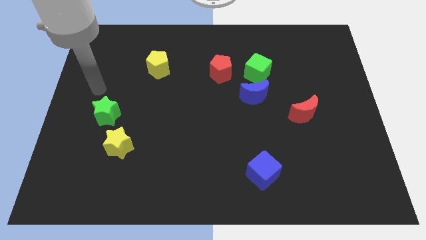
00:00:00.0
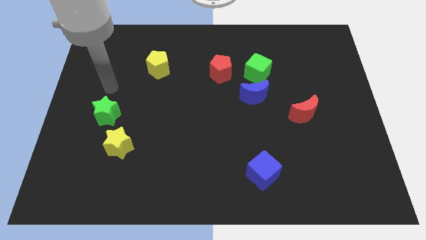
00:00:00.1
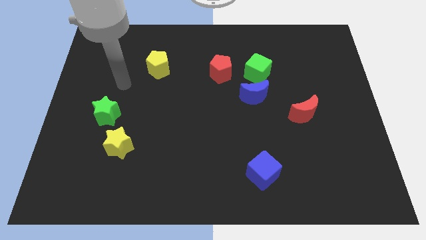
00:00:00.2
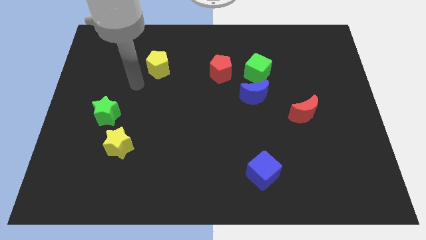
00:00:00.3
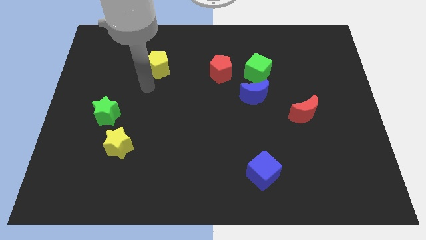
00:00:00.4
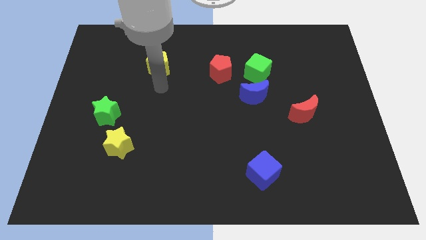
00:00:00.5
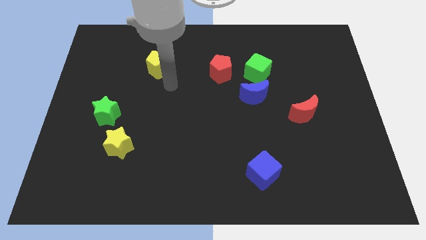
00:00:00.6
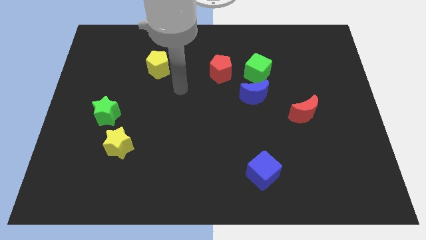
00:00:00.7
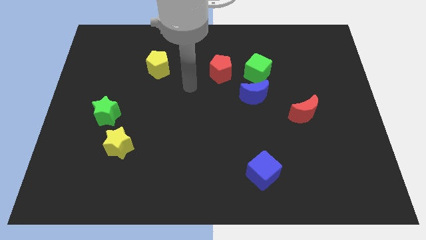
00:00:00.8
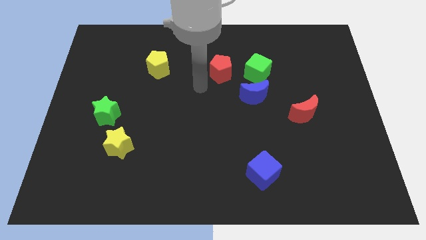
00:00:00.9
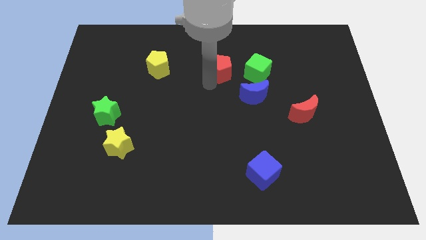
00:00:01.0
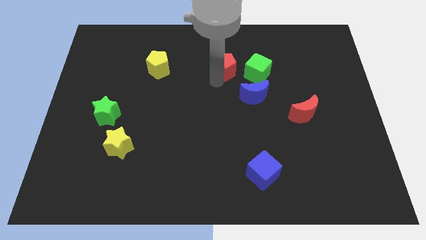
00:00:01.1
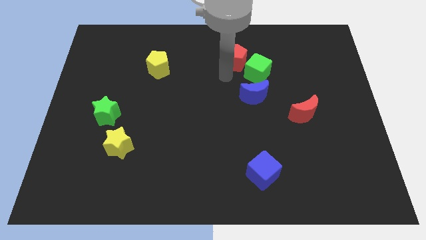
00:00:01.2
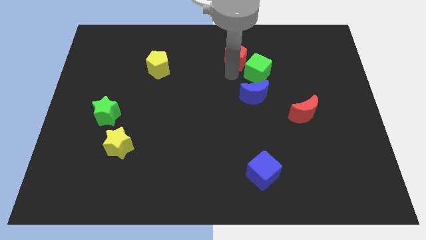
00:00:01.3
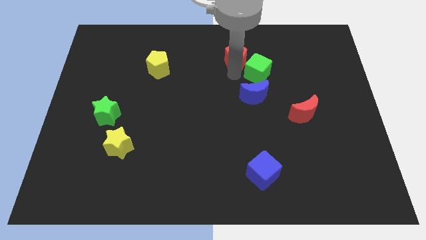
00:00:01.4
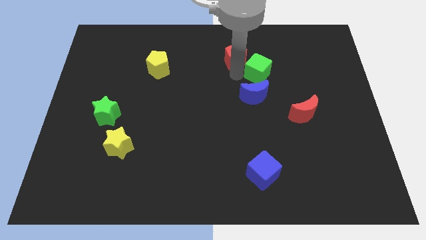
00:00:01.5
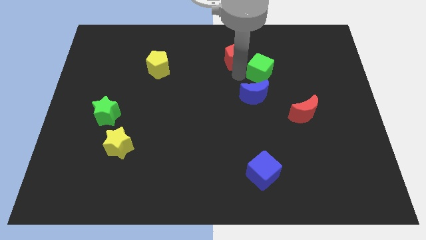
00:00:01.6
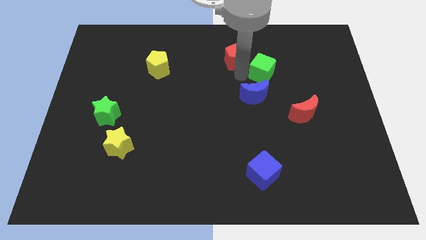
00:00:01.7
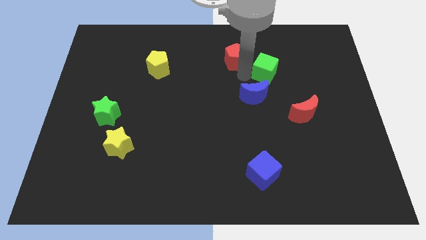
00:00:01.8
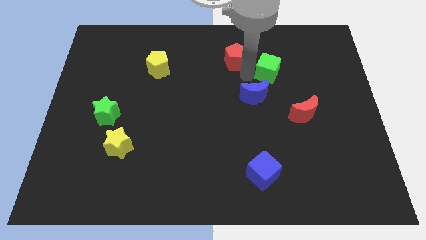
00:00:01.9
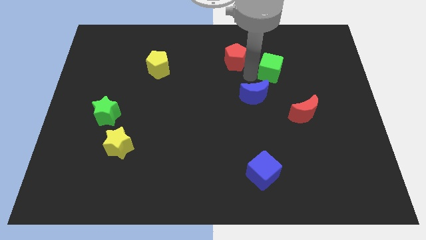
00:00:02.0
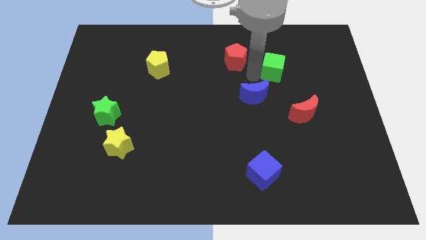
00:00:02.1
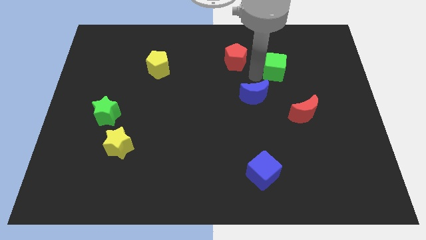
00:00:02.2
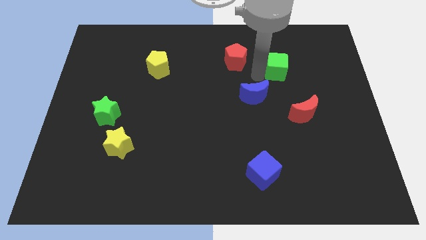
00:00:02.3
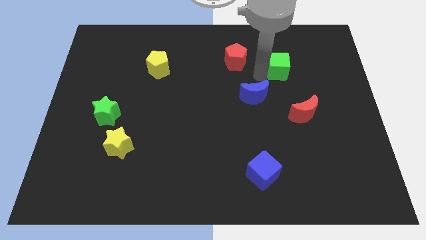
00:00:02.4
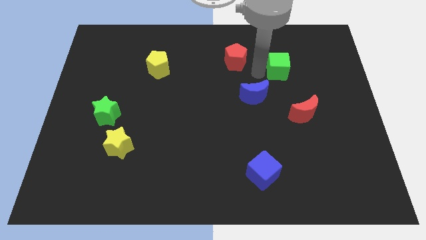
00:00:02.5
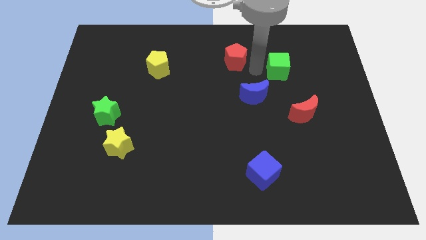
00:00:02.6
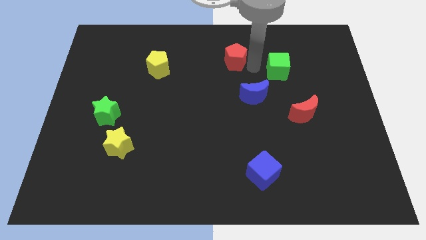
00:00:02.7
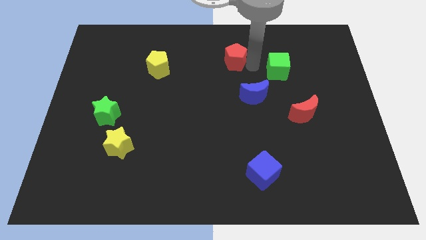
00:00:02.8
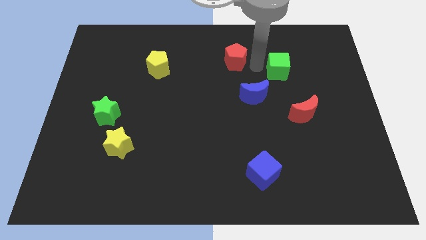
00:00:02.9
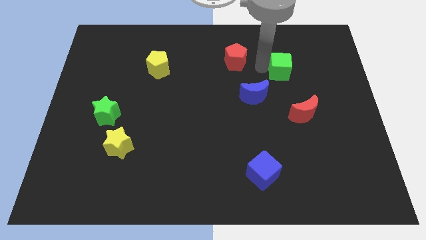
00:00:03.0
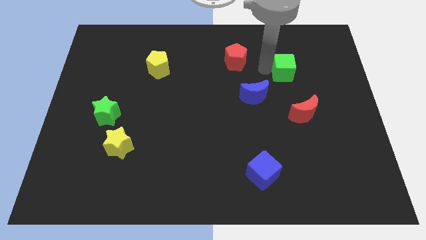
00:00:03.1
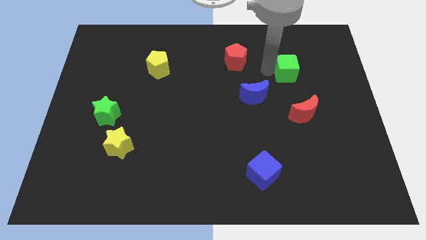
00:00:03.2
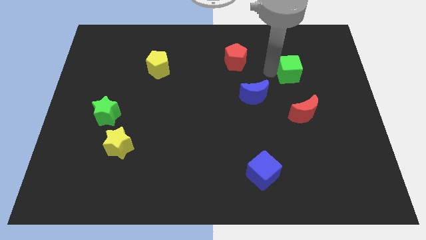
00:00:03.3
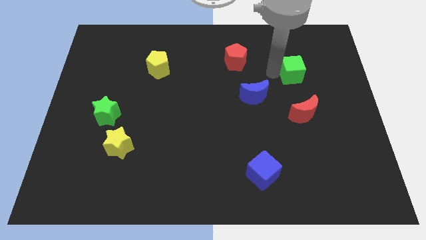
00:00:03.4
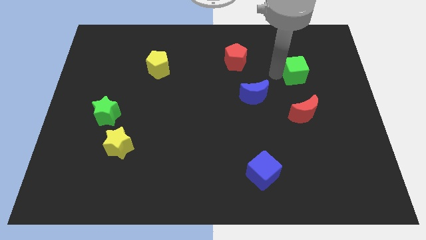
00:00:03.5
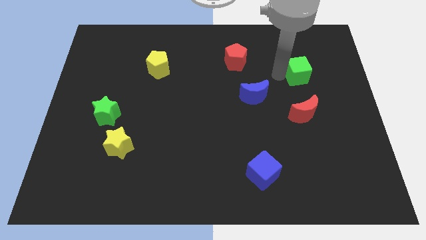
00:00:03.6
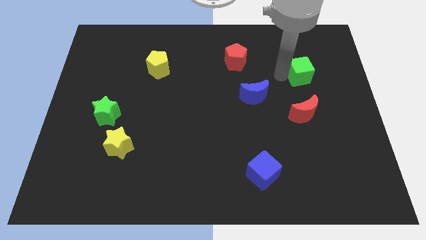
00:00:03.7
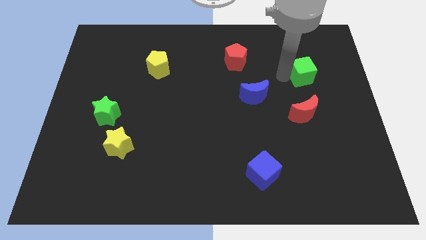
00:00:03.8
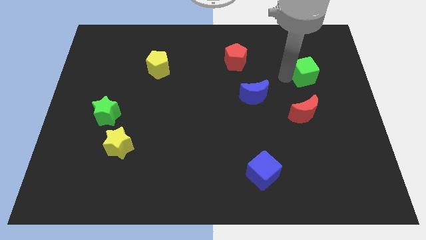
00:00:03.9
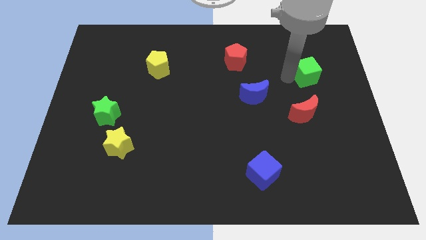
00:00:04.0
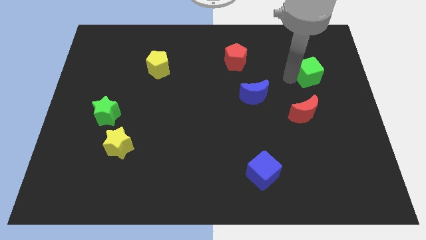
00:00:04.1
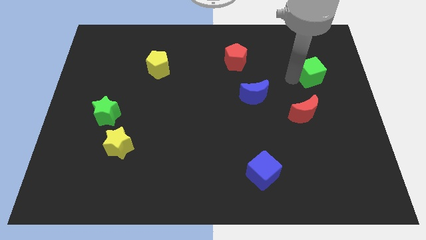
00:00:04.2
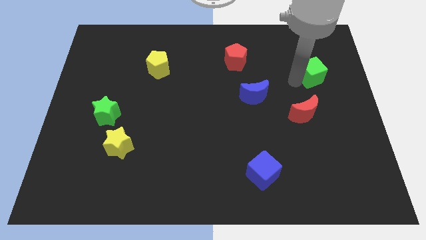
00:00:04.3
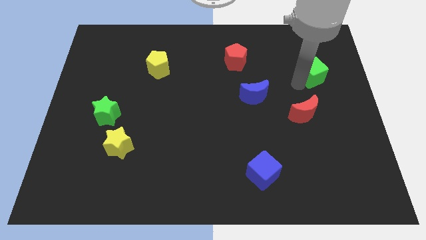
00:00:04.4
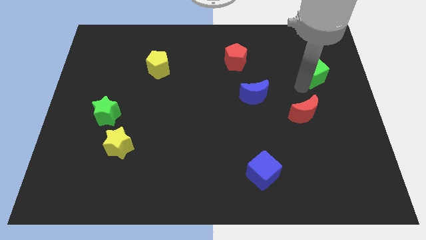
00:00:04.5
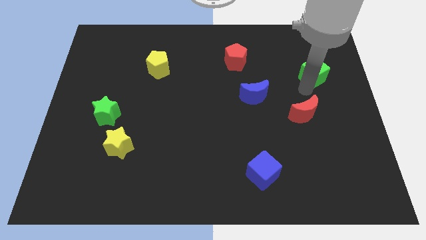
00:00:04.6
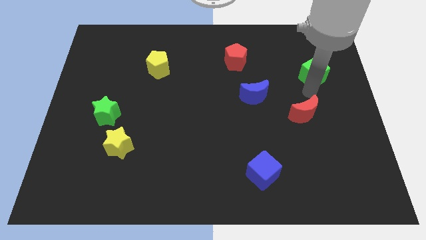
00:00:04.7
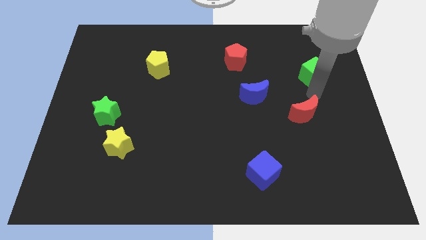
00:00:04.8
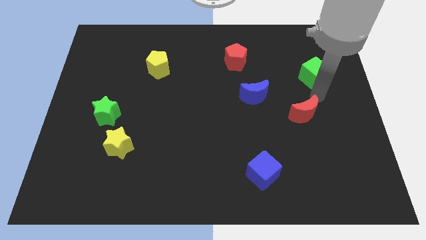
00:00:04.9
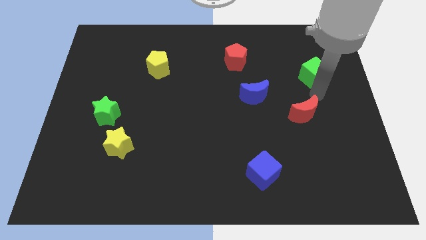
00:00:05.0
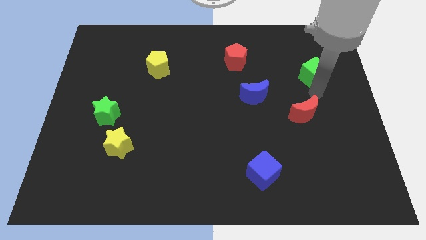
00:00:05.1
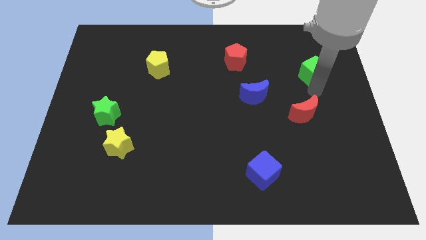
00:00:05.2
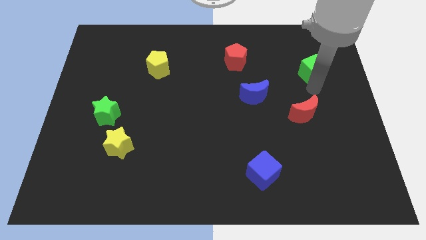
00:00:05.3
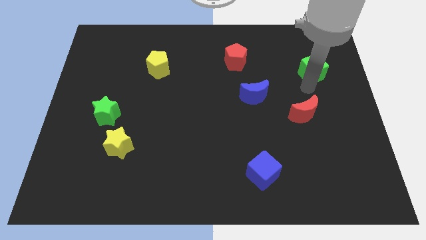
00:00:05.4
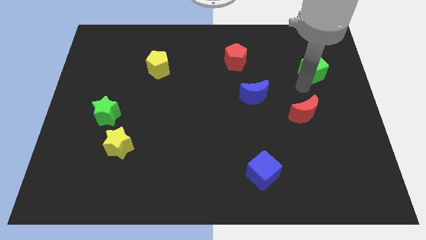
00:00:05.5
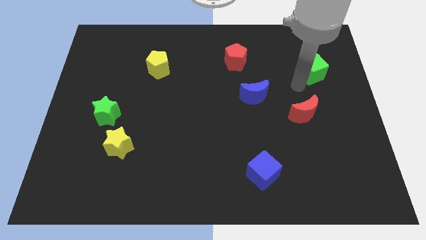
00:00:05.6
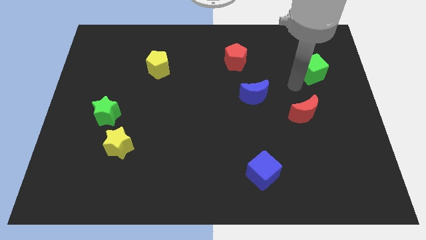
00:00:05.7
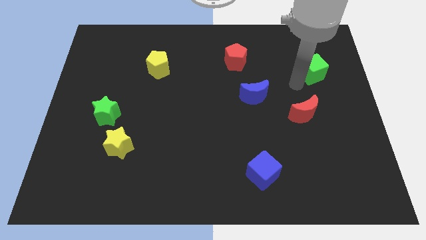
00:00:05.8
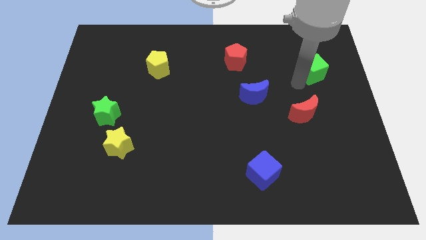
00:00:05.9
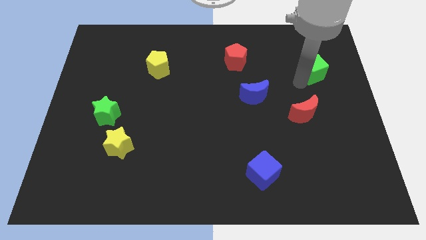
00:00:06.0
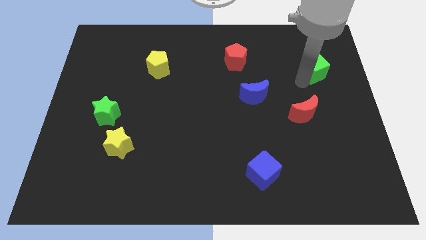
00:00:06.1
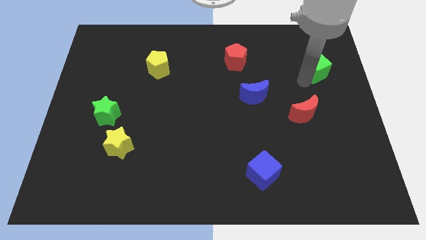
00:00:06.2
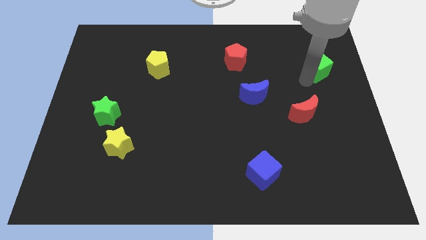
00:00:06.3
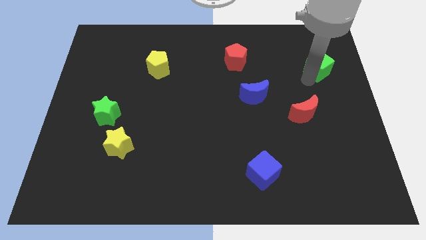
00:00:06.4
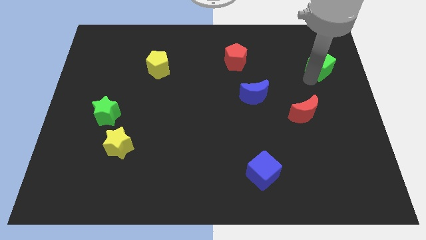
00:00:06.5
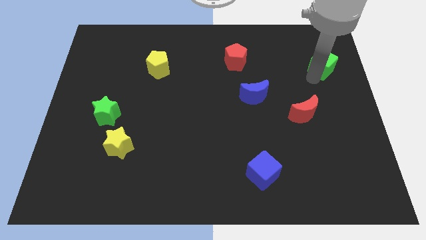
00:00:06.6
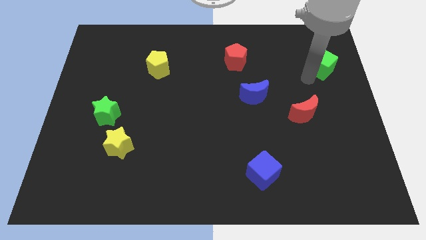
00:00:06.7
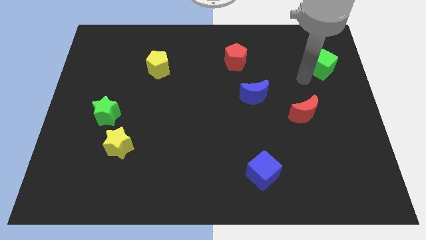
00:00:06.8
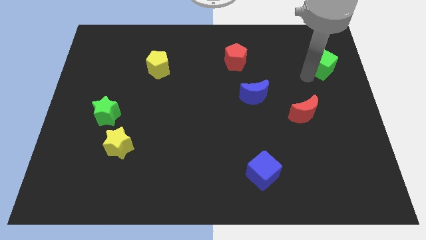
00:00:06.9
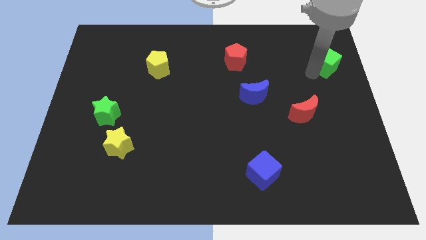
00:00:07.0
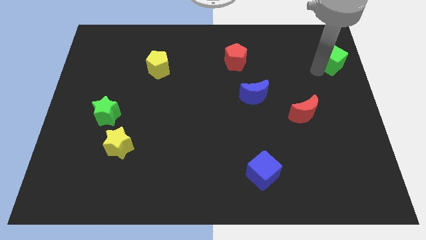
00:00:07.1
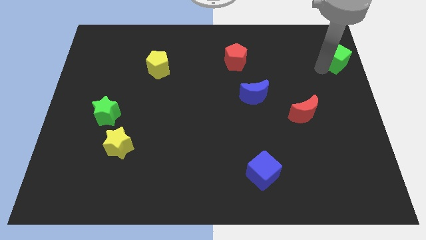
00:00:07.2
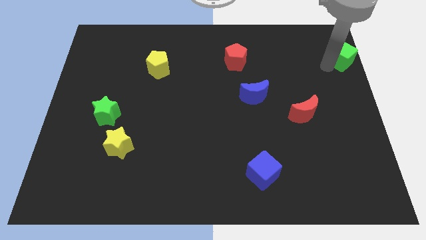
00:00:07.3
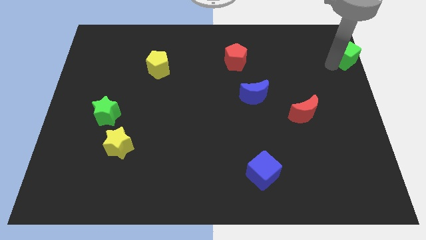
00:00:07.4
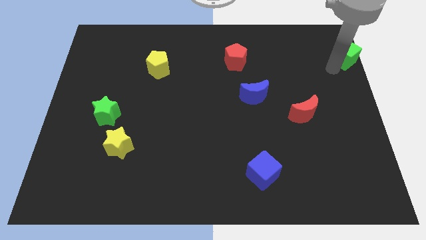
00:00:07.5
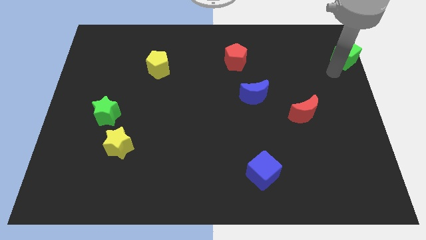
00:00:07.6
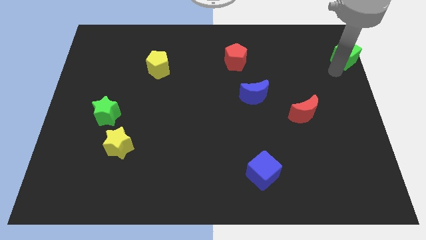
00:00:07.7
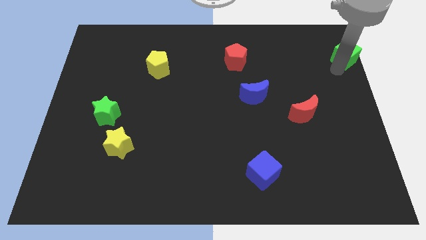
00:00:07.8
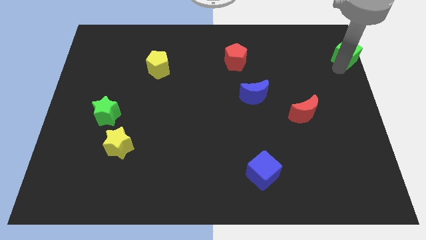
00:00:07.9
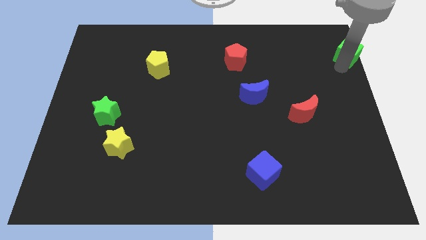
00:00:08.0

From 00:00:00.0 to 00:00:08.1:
put the green cube to the upper right corner
